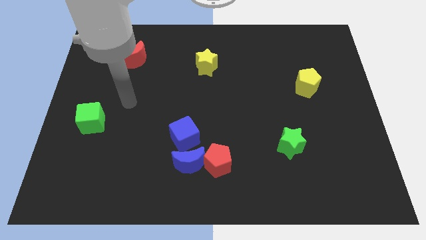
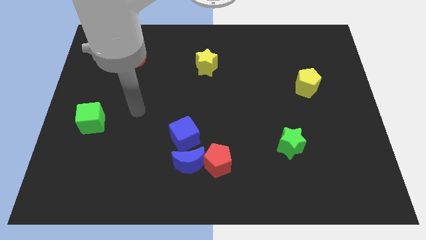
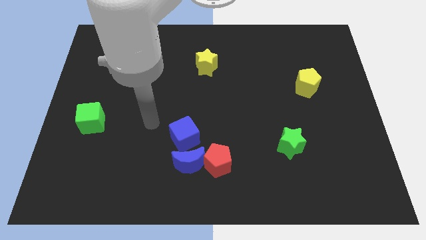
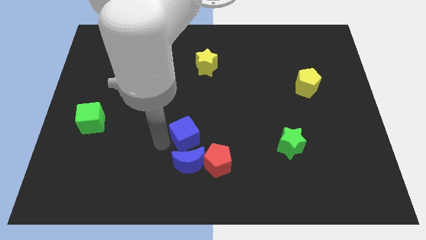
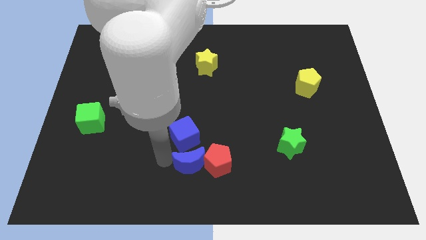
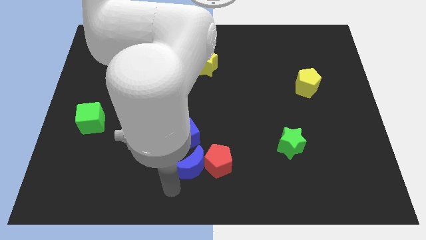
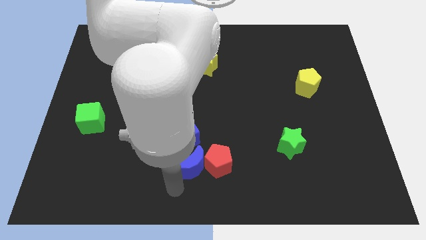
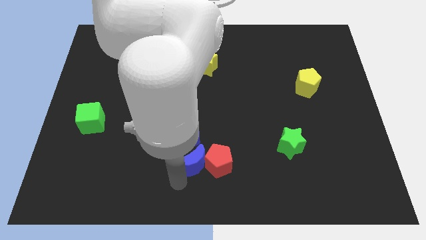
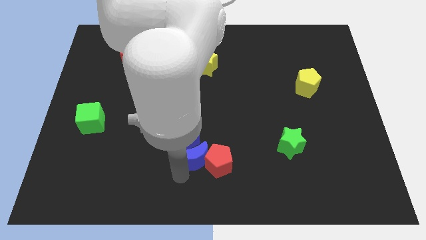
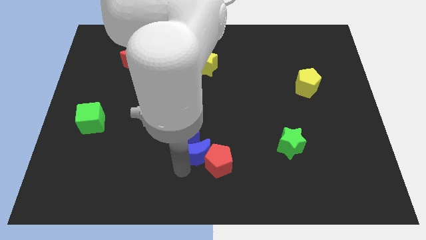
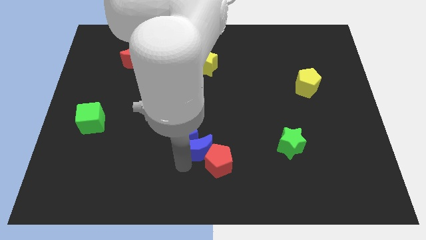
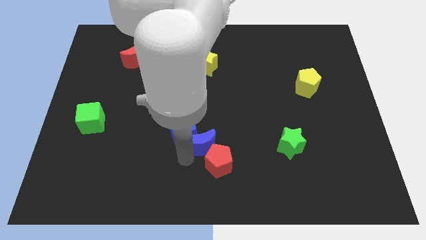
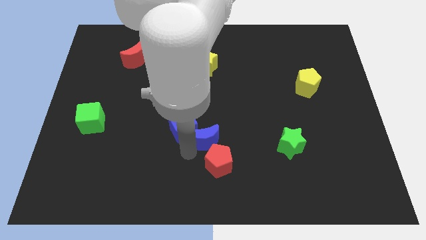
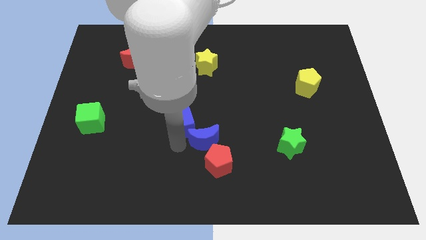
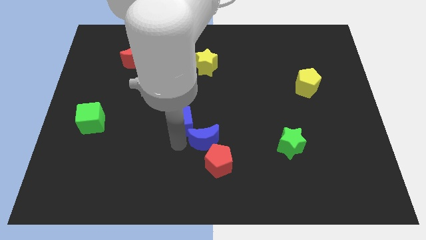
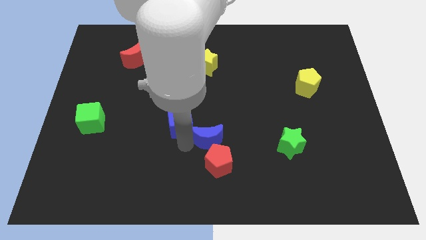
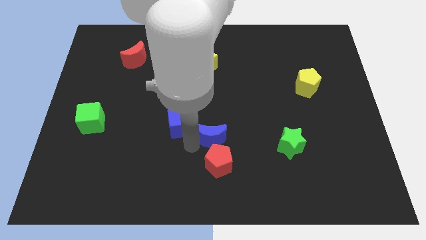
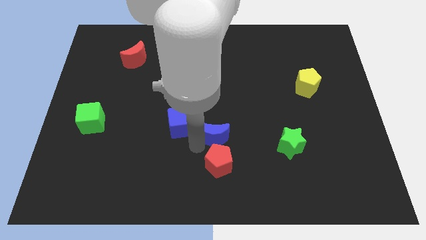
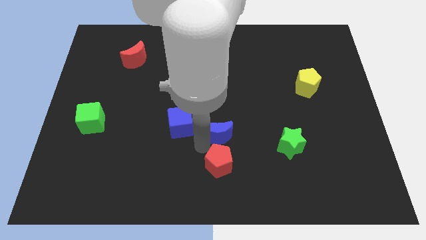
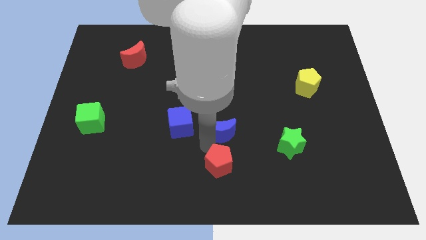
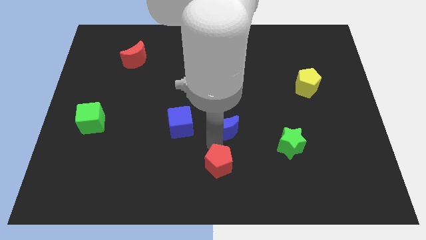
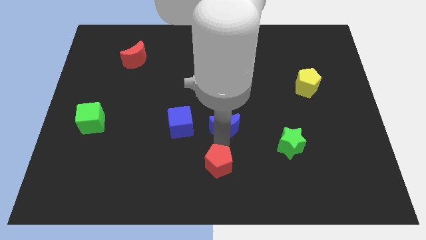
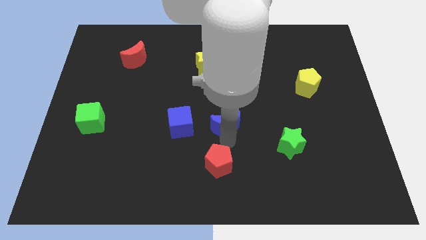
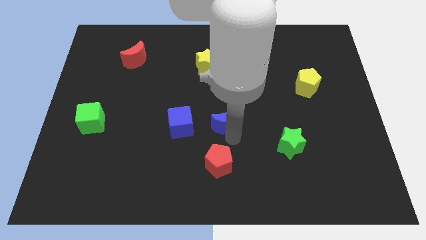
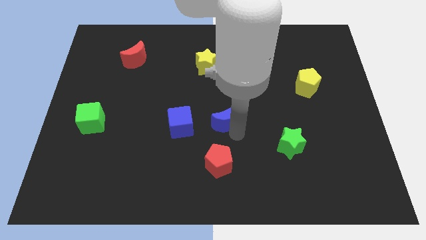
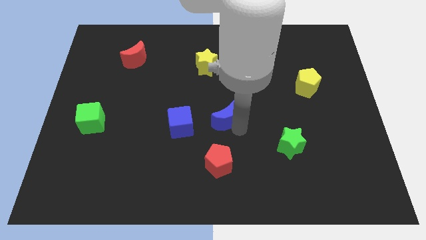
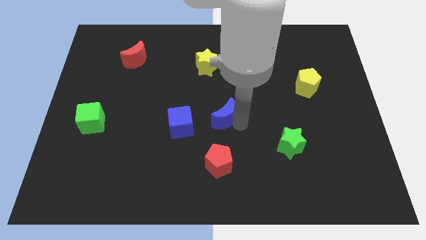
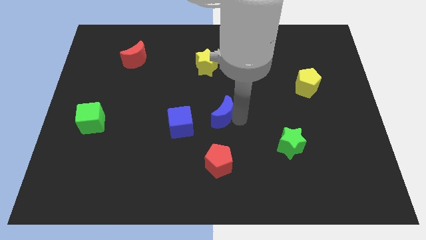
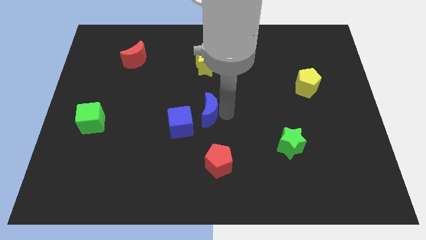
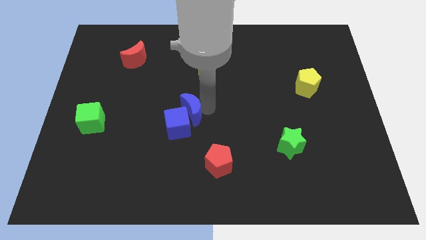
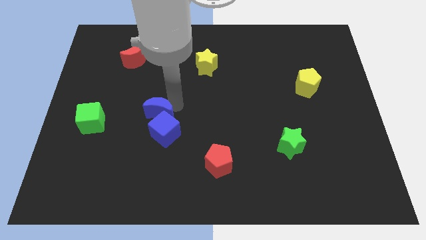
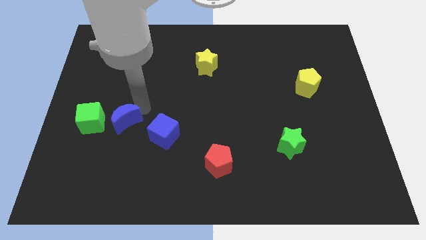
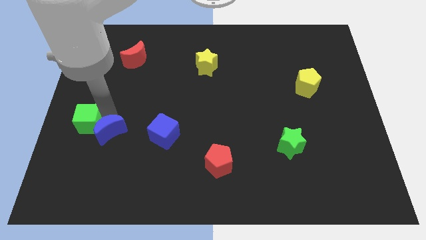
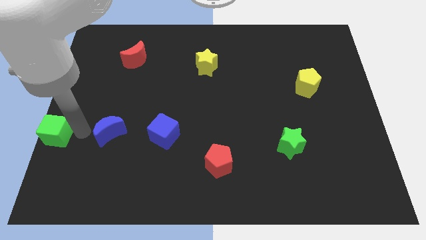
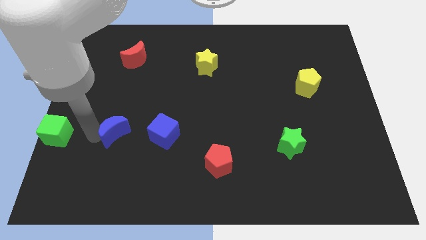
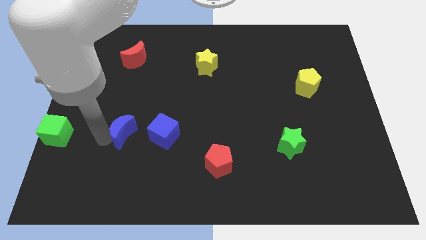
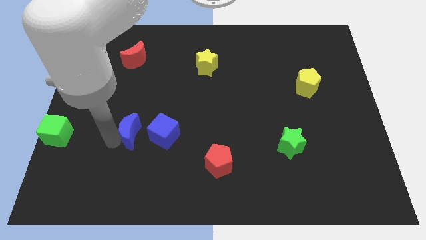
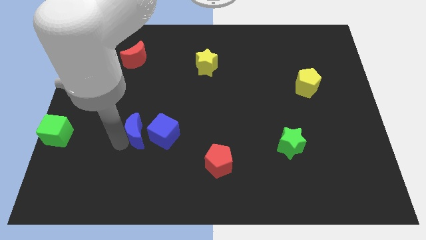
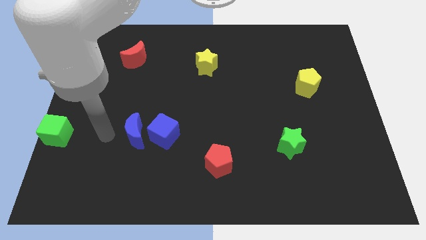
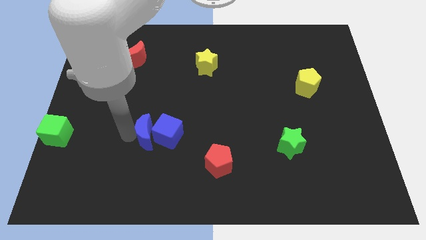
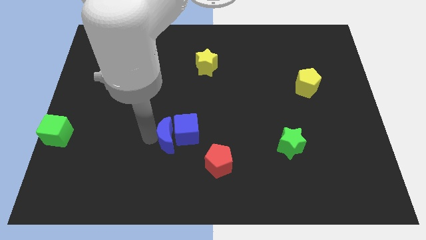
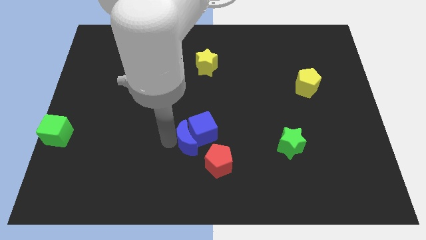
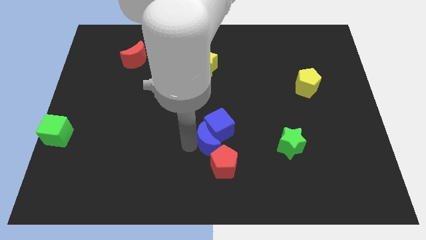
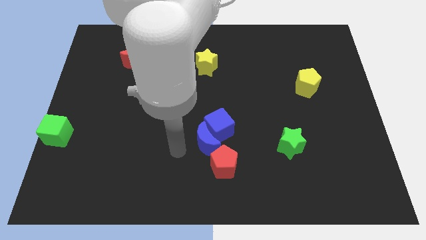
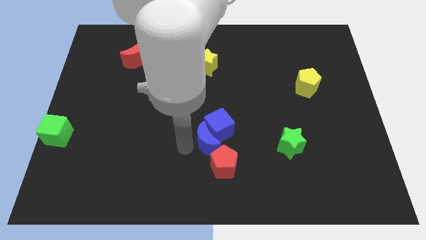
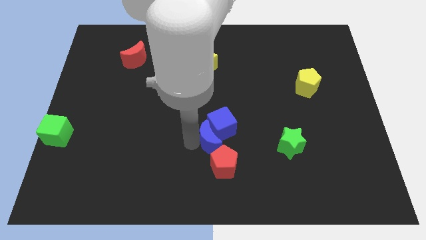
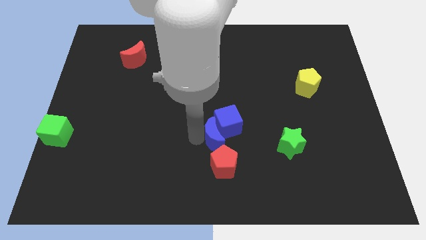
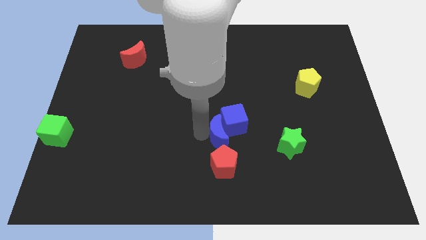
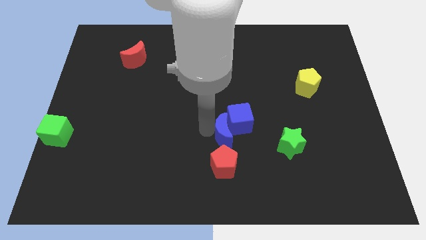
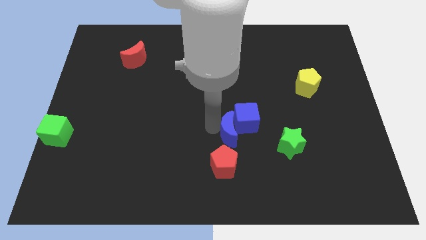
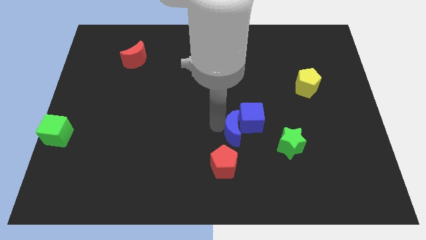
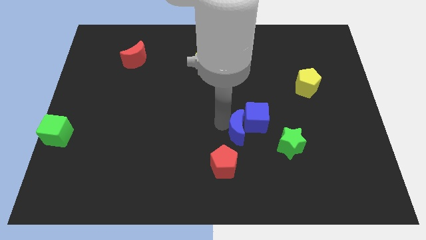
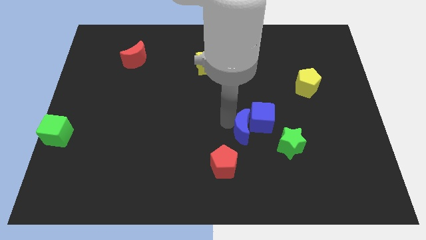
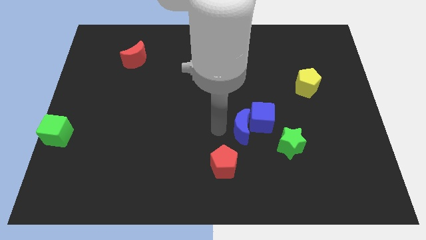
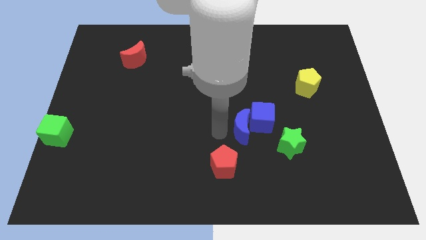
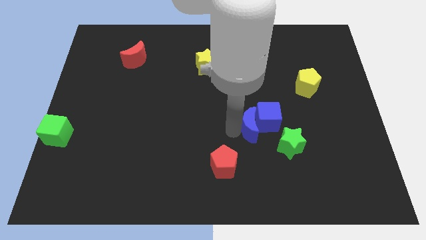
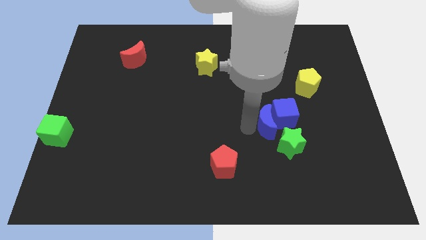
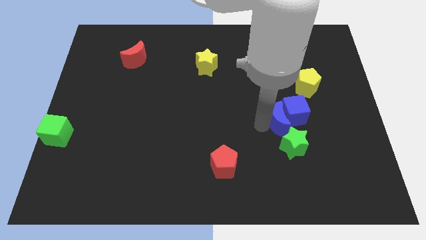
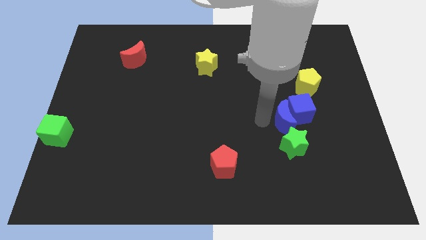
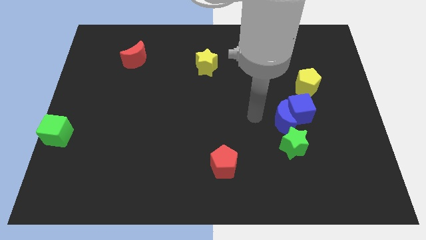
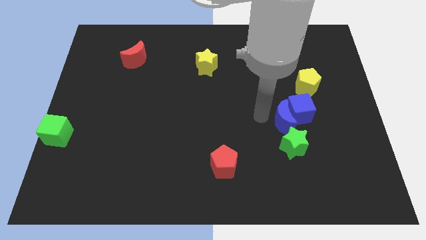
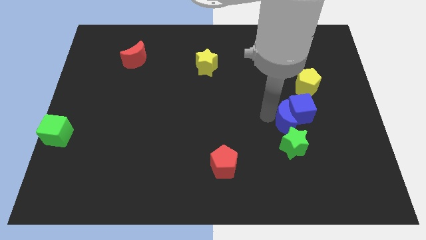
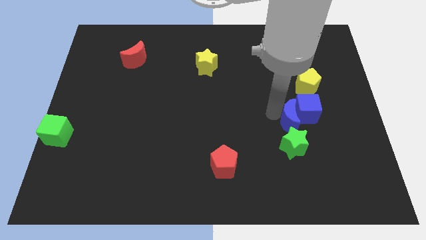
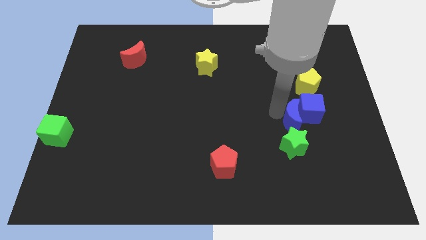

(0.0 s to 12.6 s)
move the blue moon to the top right of the green star

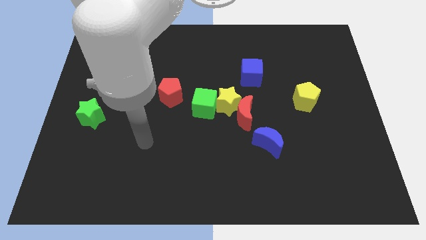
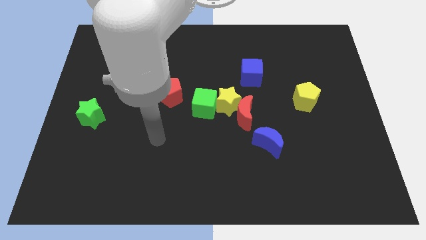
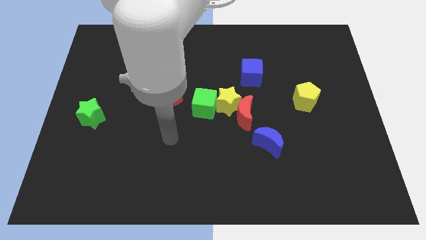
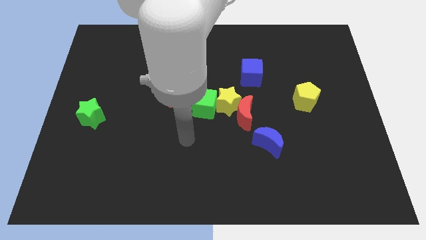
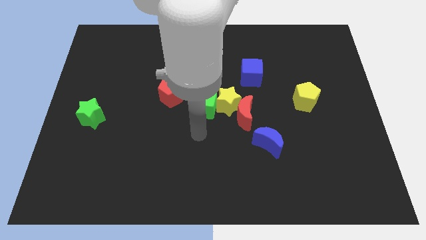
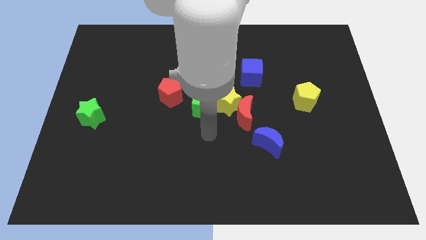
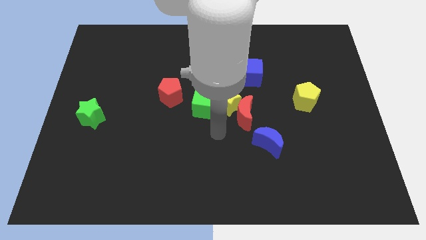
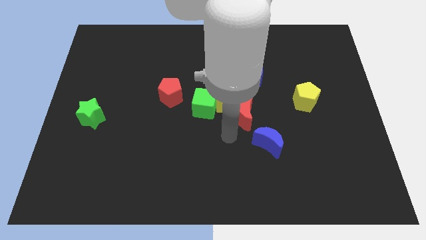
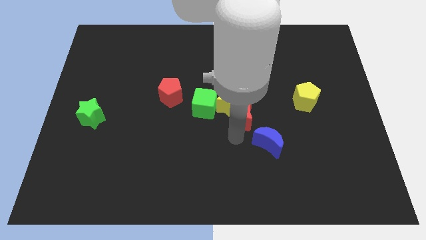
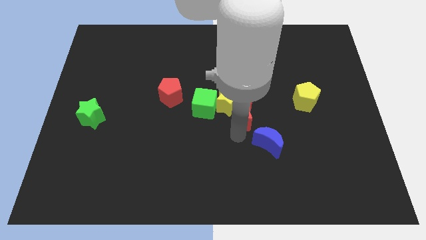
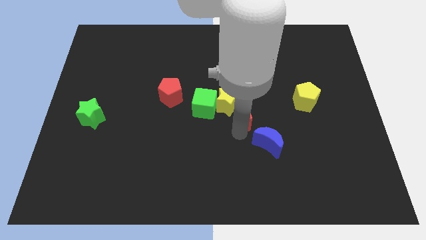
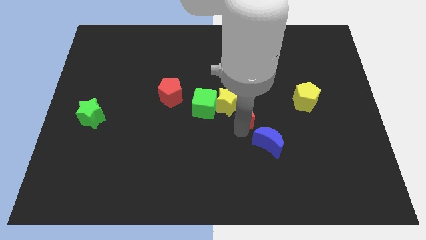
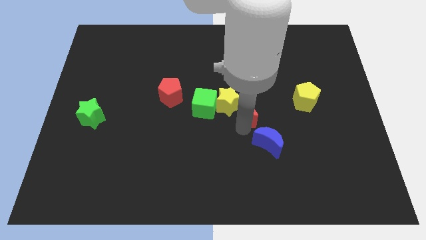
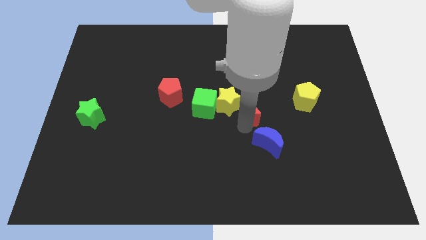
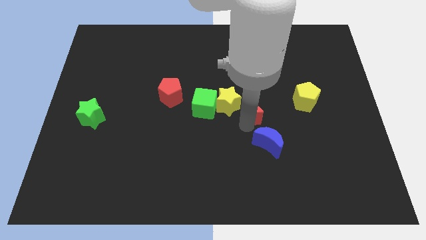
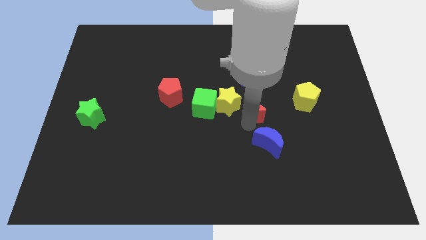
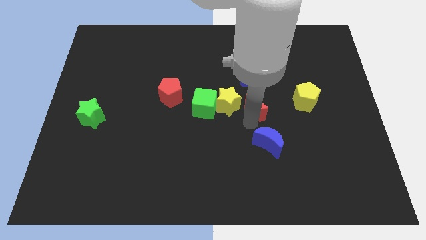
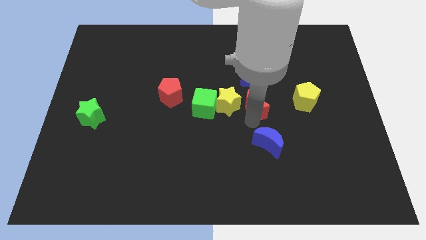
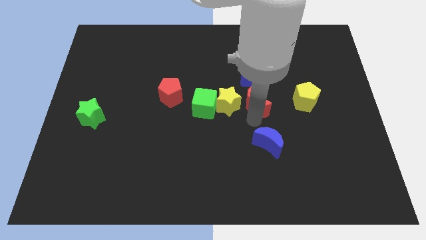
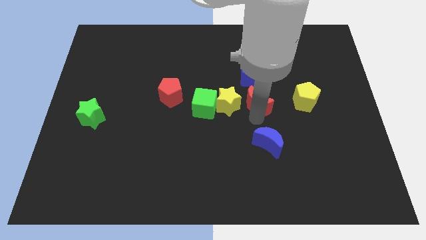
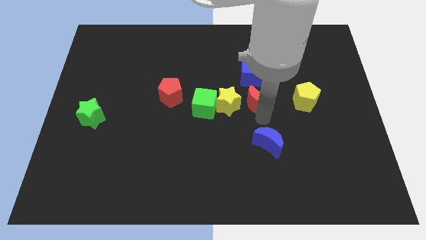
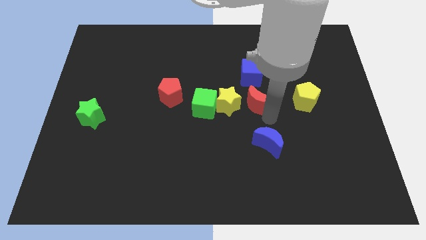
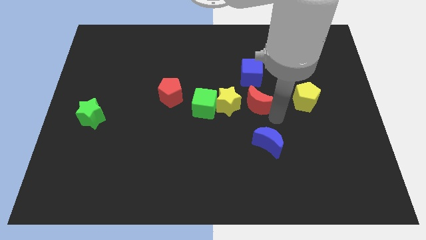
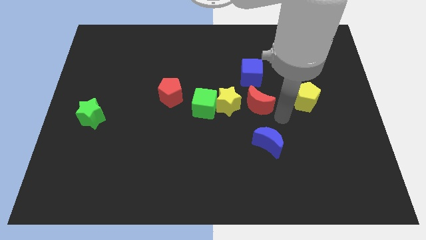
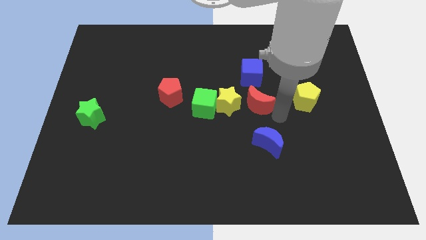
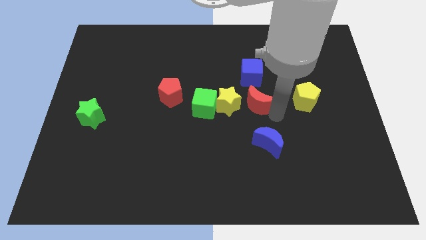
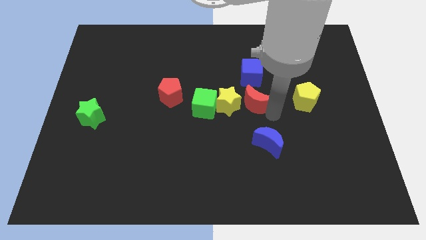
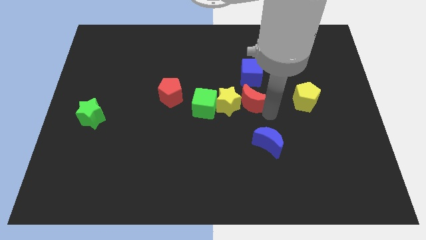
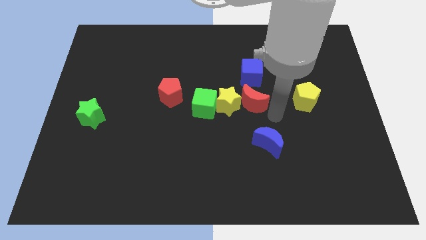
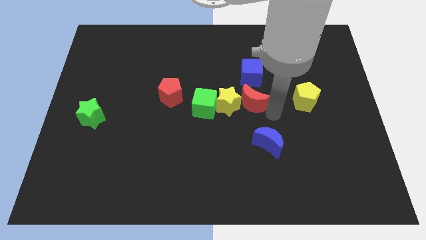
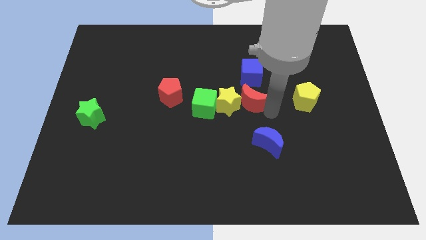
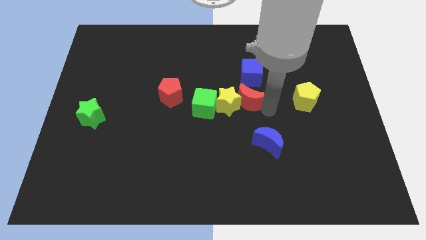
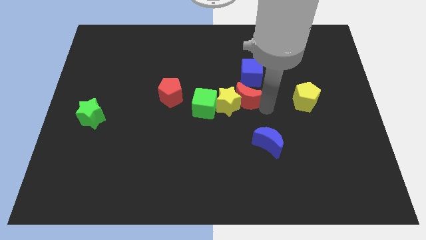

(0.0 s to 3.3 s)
push the red moon to the bottom left side of the blue cube
